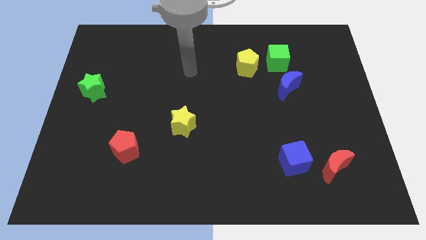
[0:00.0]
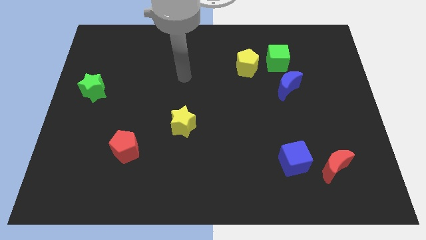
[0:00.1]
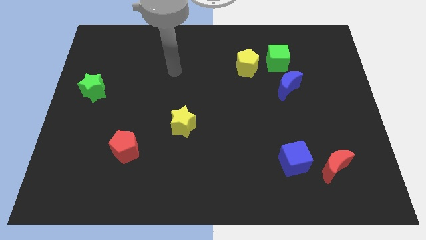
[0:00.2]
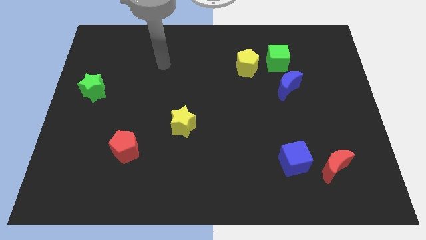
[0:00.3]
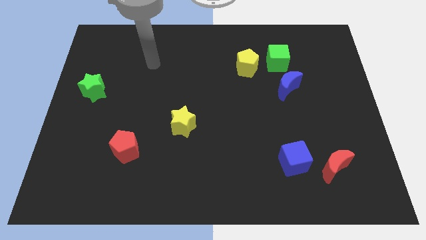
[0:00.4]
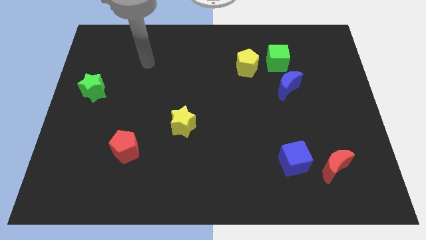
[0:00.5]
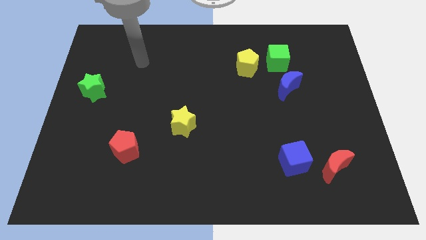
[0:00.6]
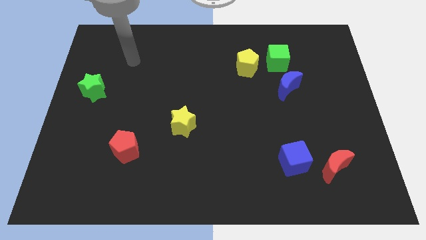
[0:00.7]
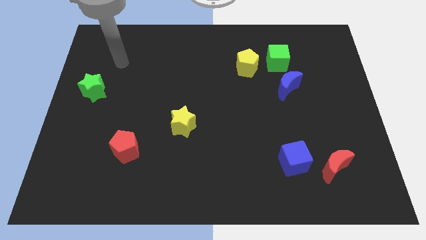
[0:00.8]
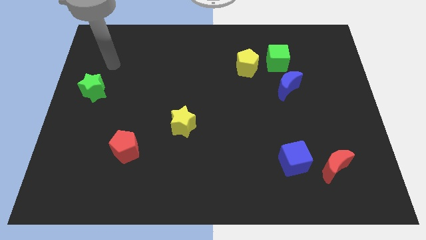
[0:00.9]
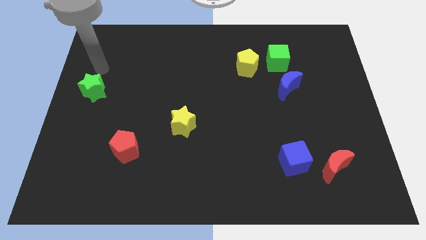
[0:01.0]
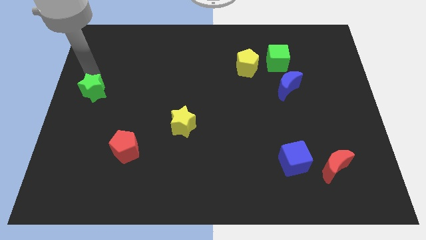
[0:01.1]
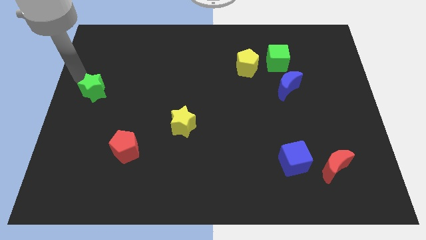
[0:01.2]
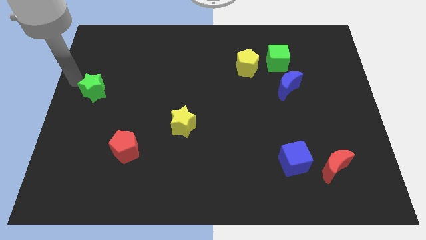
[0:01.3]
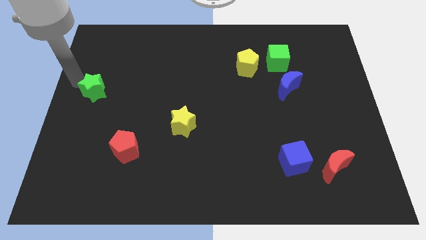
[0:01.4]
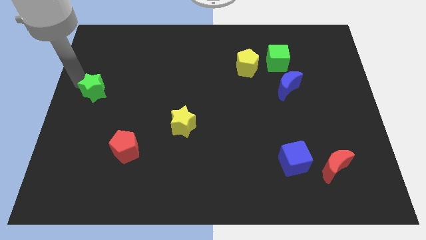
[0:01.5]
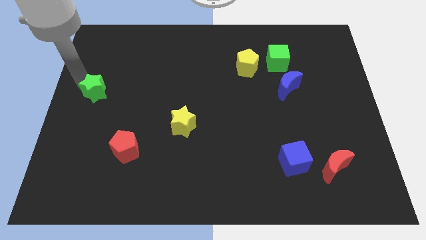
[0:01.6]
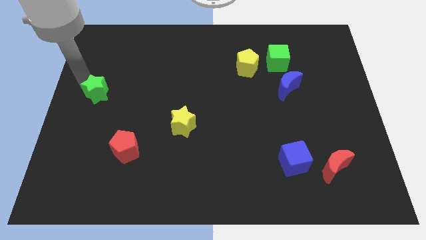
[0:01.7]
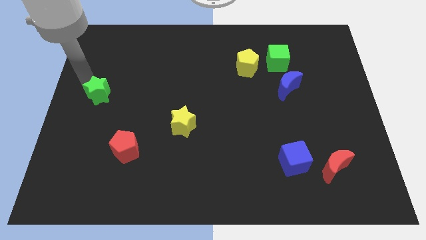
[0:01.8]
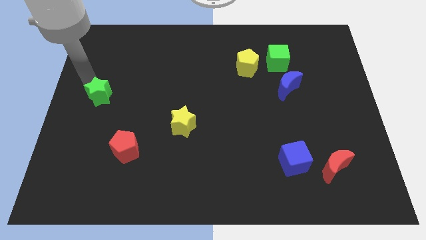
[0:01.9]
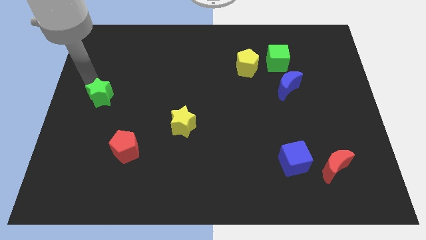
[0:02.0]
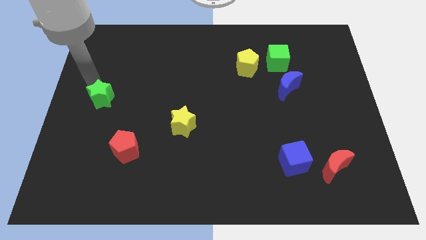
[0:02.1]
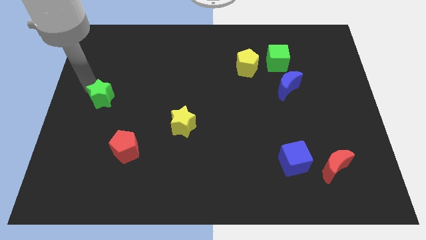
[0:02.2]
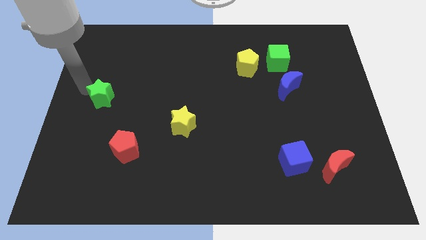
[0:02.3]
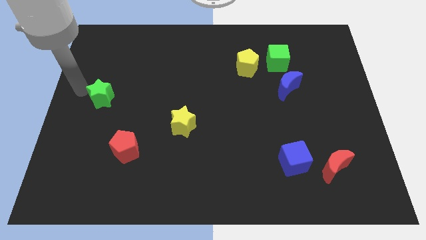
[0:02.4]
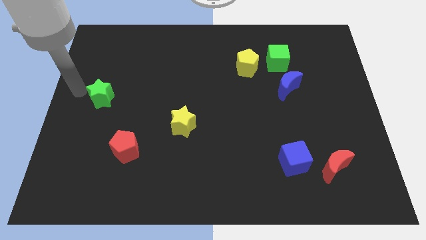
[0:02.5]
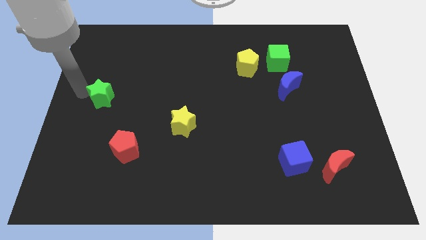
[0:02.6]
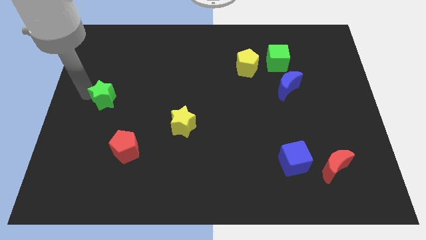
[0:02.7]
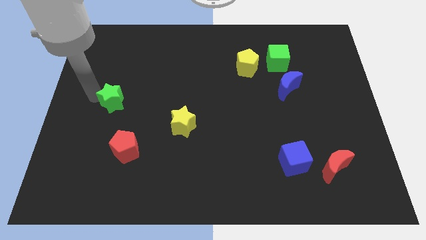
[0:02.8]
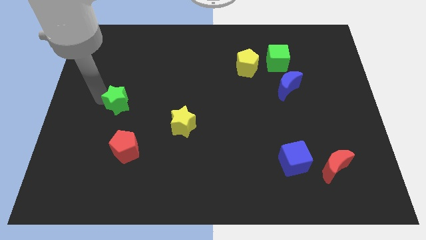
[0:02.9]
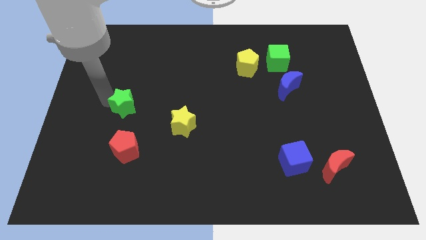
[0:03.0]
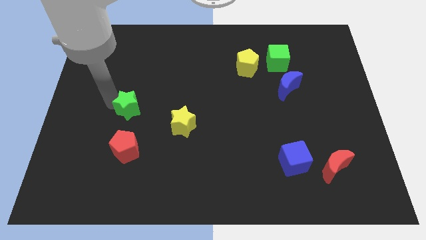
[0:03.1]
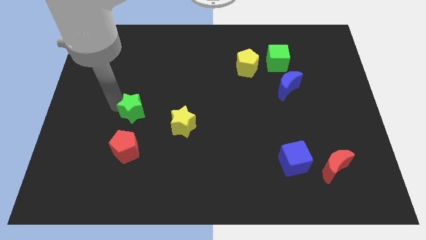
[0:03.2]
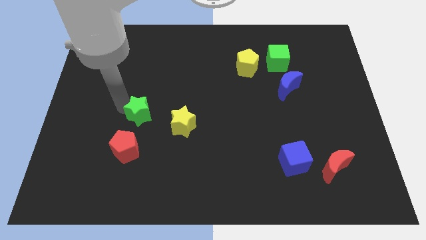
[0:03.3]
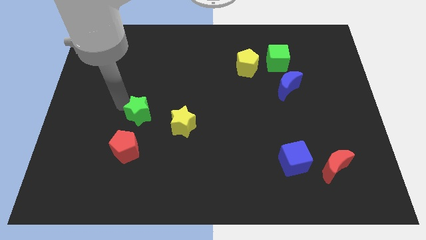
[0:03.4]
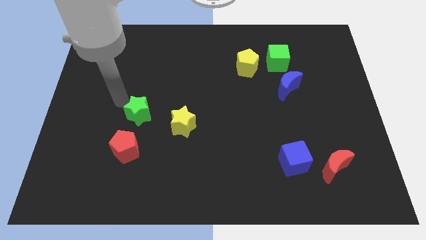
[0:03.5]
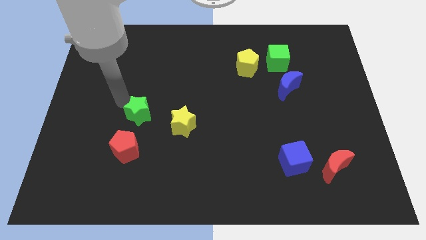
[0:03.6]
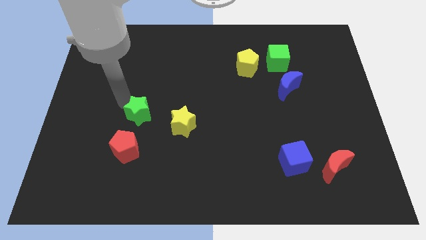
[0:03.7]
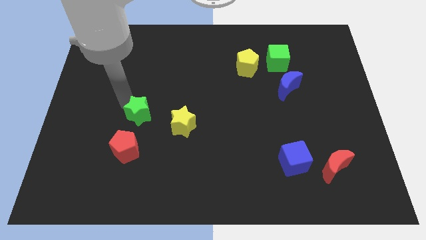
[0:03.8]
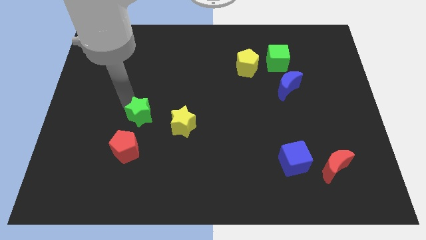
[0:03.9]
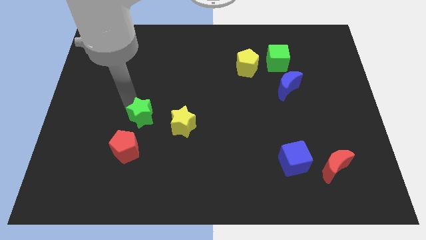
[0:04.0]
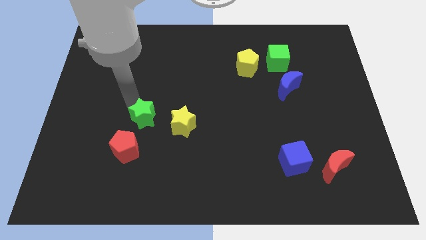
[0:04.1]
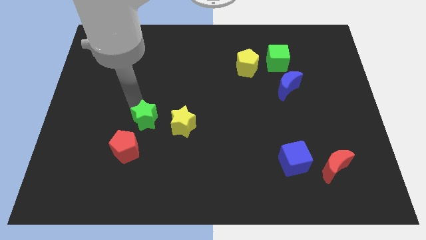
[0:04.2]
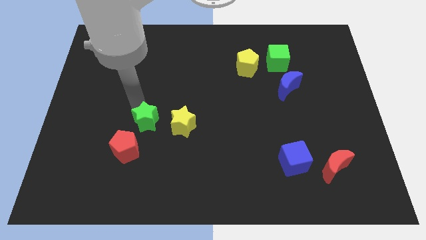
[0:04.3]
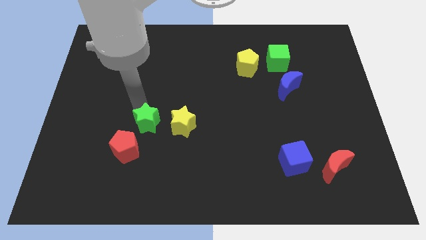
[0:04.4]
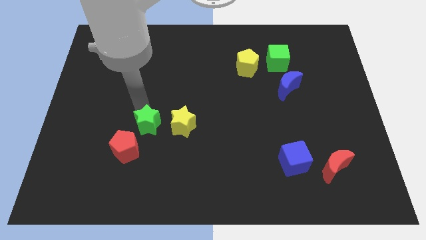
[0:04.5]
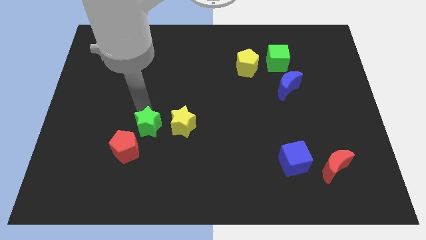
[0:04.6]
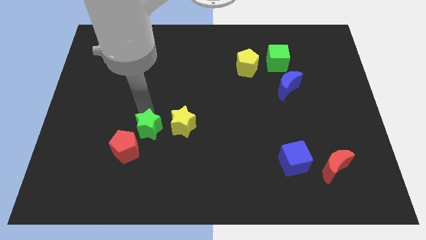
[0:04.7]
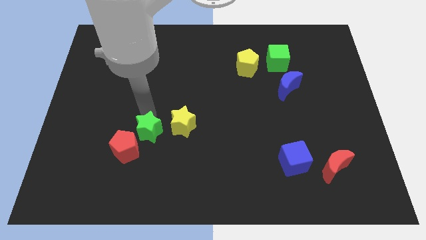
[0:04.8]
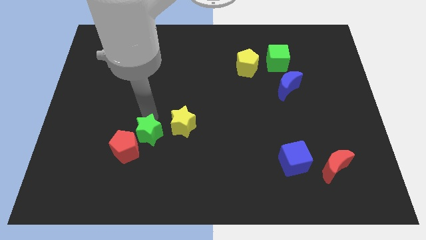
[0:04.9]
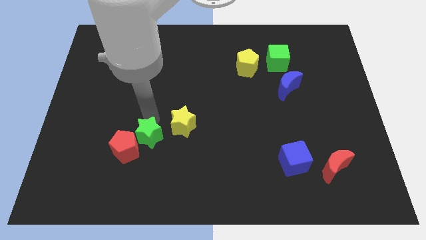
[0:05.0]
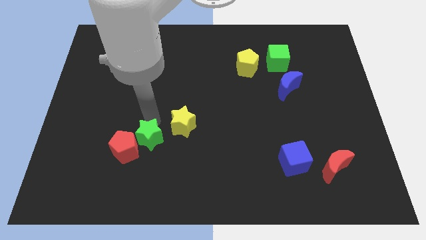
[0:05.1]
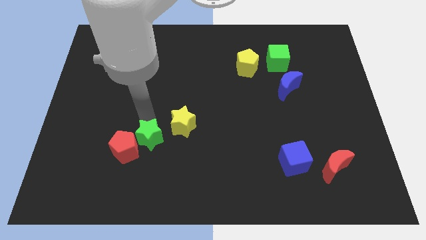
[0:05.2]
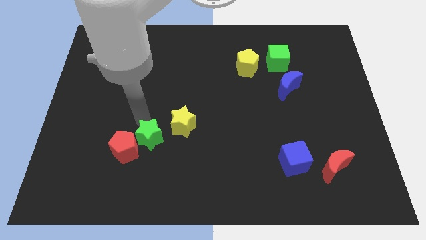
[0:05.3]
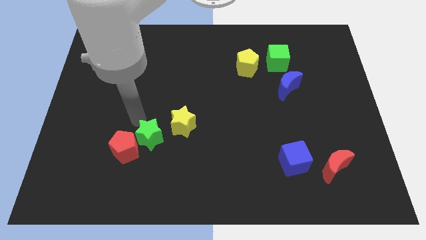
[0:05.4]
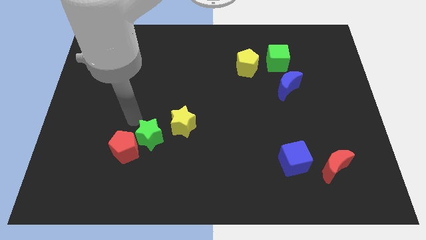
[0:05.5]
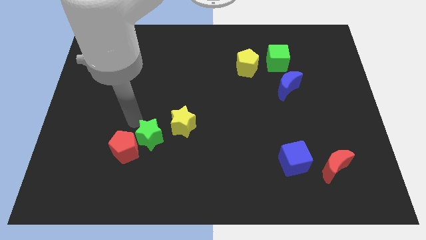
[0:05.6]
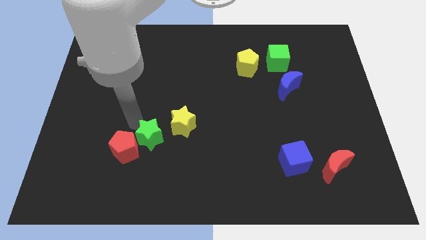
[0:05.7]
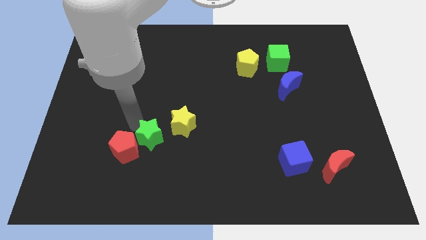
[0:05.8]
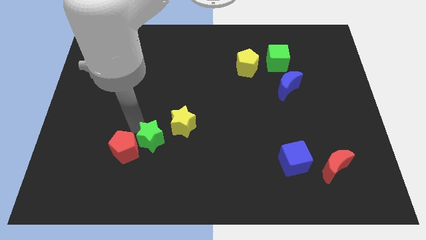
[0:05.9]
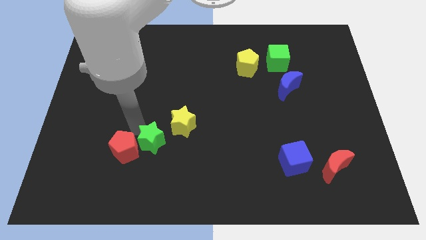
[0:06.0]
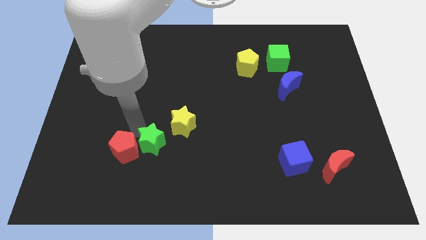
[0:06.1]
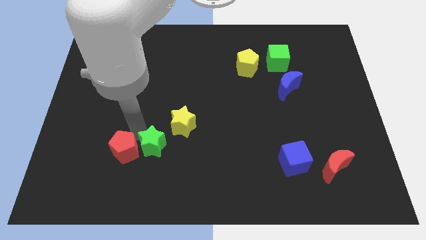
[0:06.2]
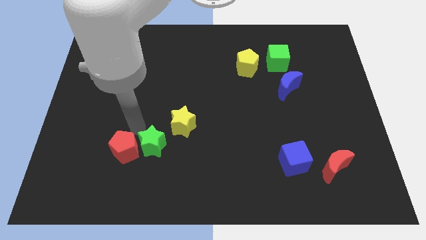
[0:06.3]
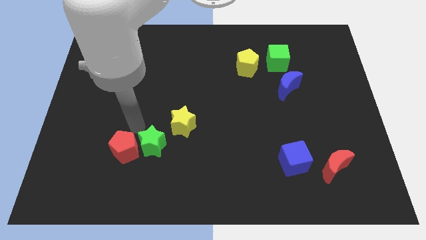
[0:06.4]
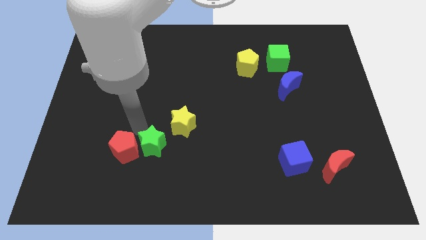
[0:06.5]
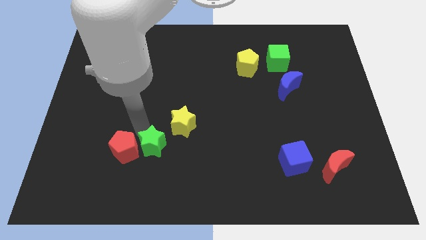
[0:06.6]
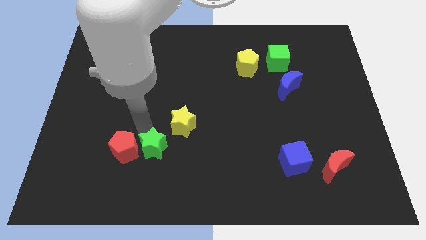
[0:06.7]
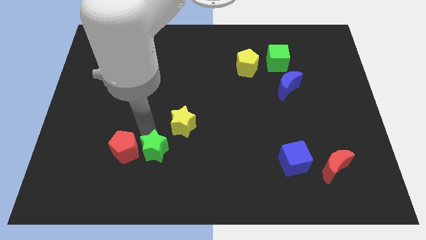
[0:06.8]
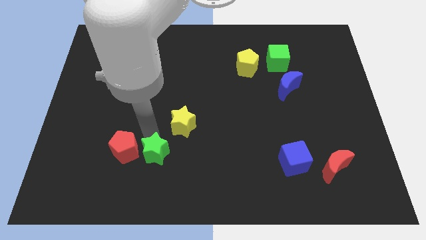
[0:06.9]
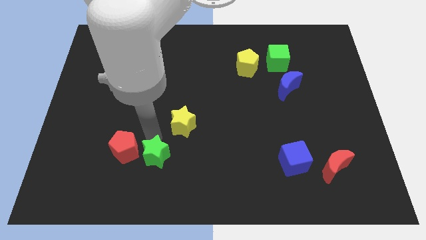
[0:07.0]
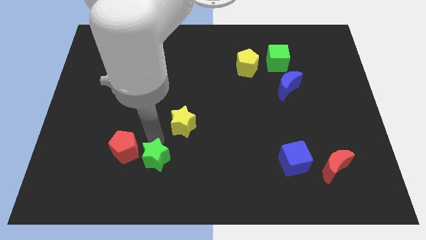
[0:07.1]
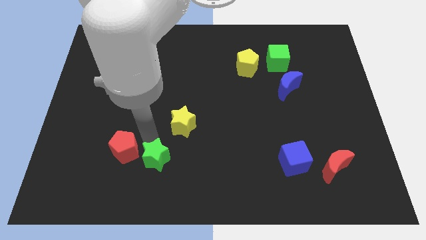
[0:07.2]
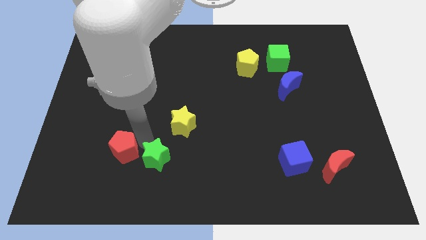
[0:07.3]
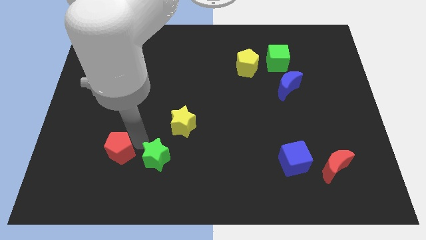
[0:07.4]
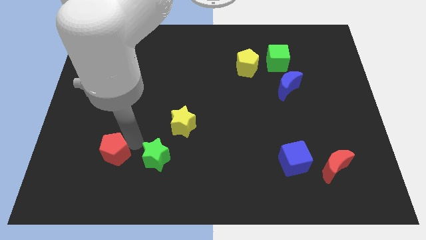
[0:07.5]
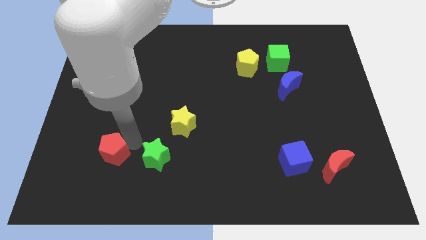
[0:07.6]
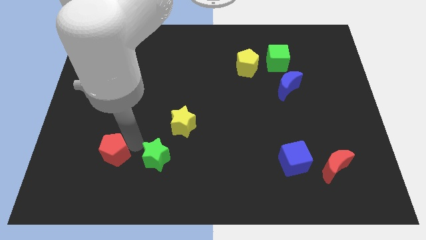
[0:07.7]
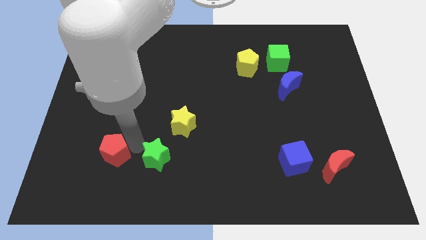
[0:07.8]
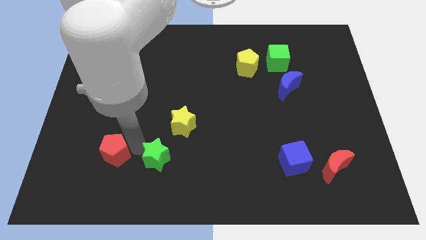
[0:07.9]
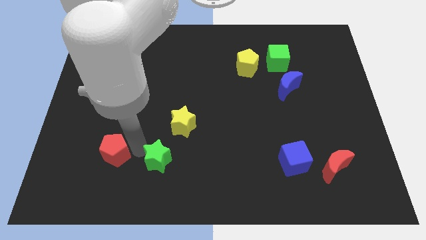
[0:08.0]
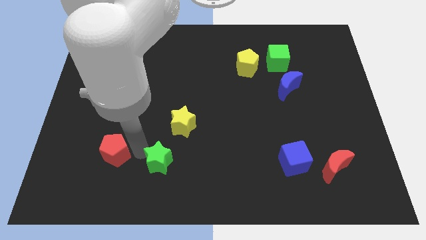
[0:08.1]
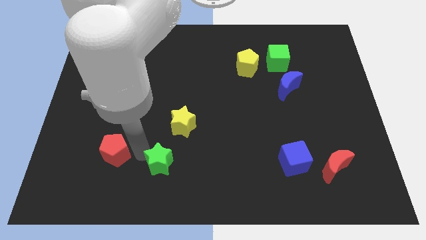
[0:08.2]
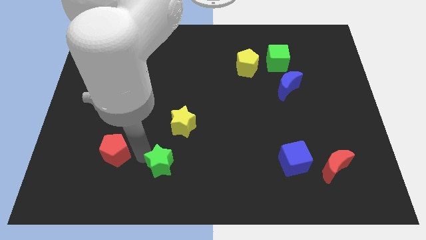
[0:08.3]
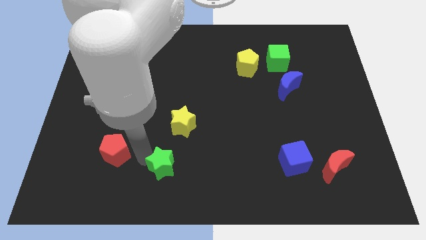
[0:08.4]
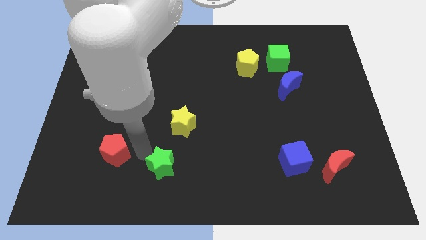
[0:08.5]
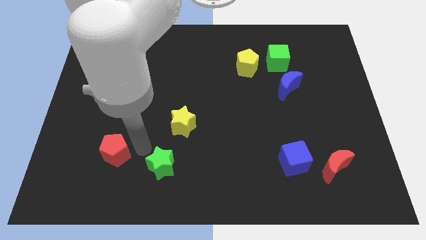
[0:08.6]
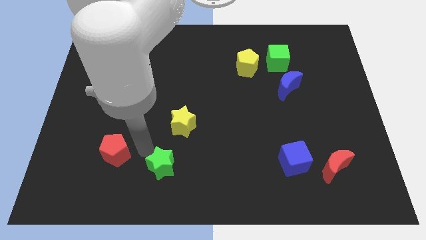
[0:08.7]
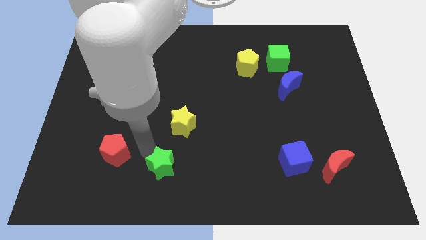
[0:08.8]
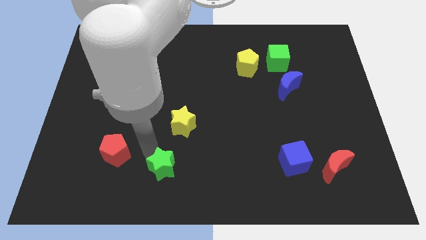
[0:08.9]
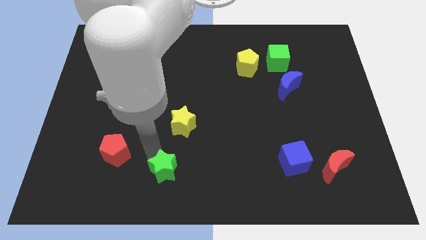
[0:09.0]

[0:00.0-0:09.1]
put the green star to the bottom
